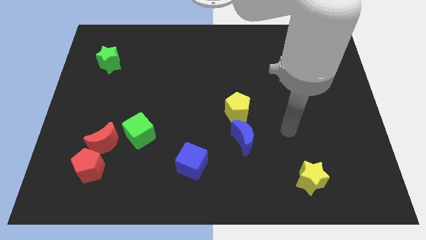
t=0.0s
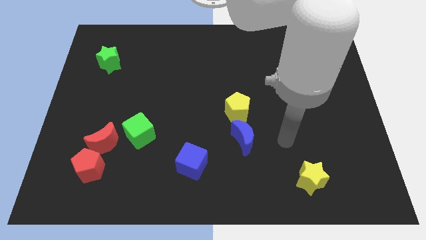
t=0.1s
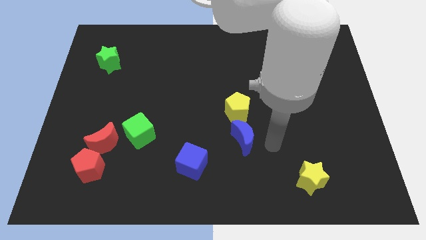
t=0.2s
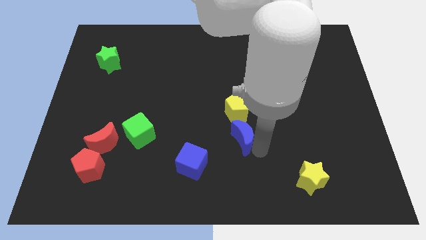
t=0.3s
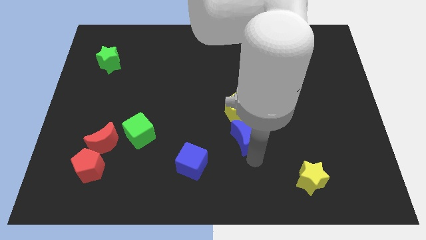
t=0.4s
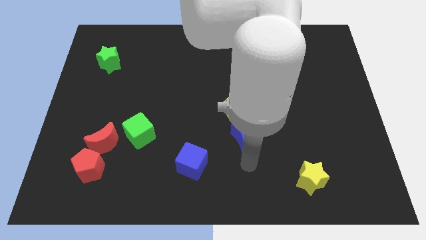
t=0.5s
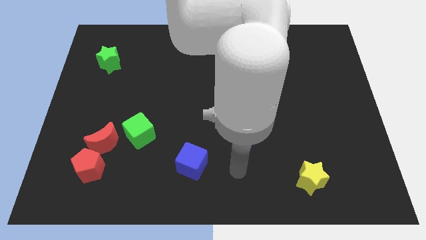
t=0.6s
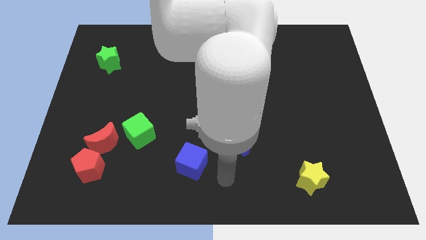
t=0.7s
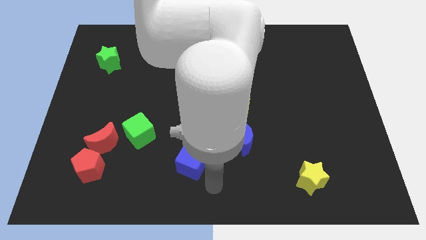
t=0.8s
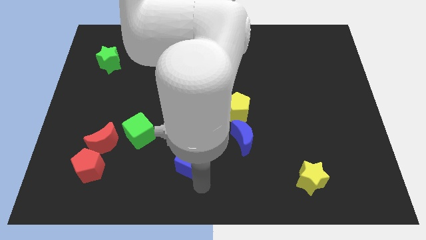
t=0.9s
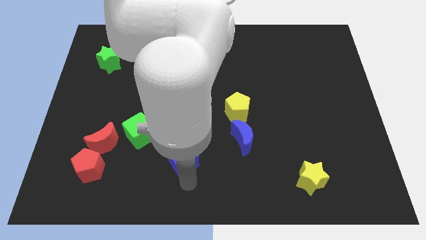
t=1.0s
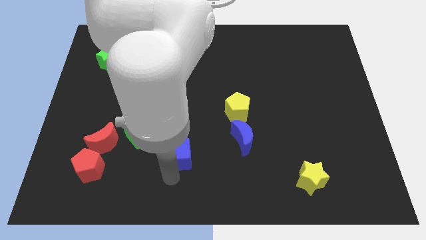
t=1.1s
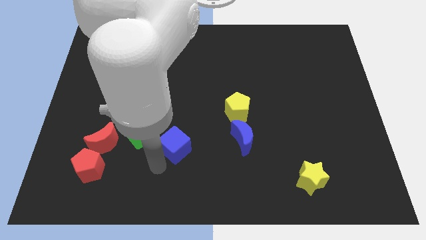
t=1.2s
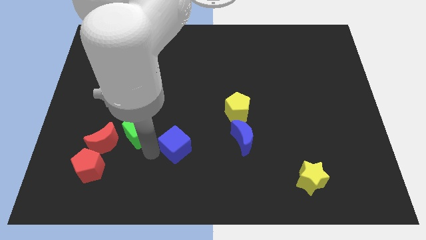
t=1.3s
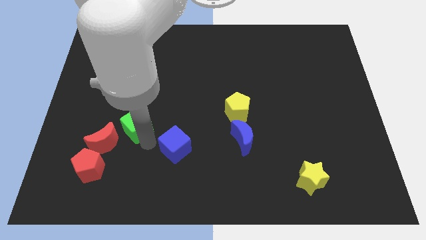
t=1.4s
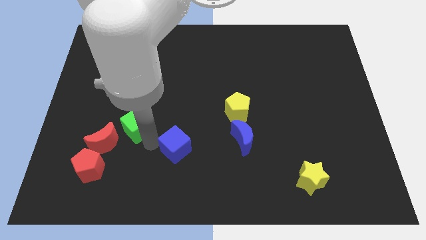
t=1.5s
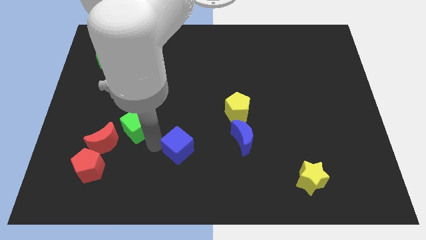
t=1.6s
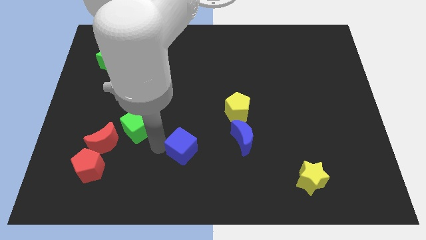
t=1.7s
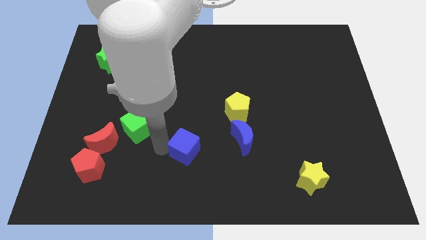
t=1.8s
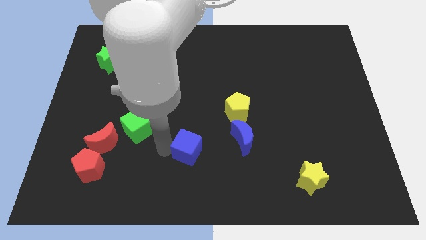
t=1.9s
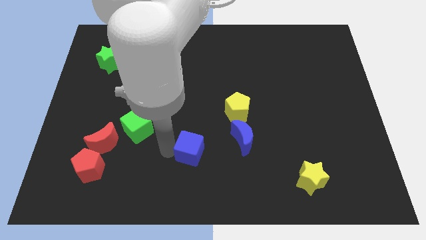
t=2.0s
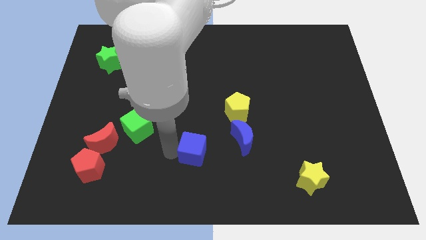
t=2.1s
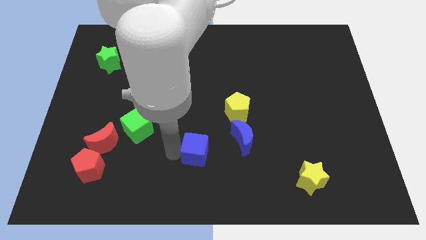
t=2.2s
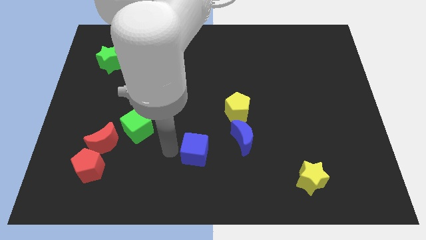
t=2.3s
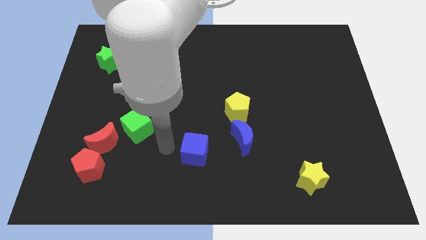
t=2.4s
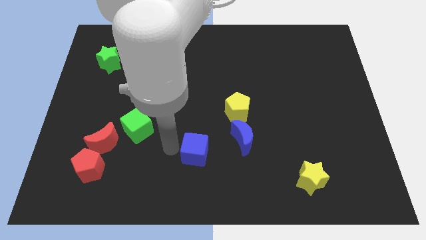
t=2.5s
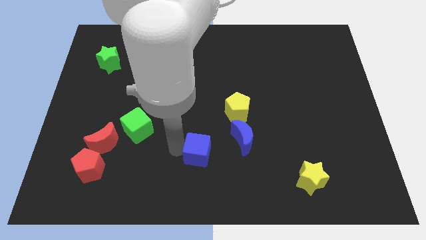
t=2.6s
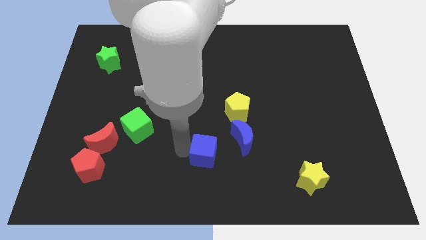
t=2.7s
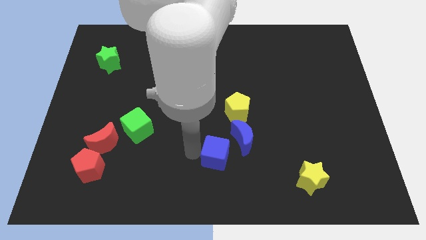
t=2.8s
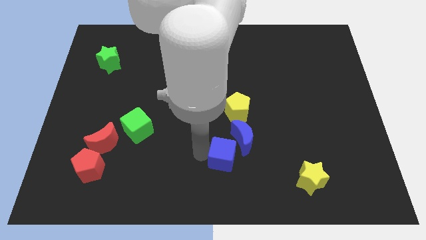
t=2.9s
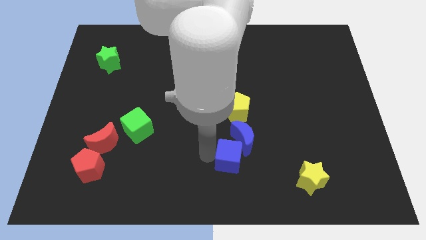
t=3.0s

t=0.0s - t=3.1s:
slightly move the blue cube right

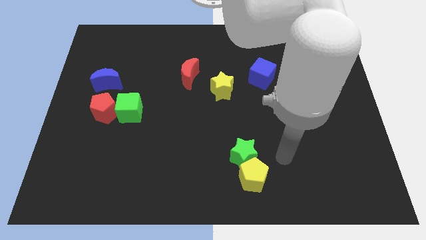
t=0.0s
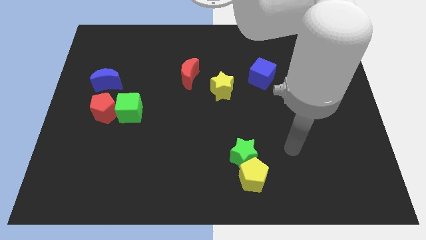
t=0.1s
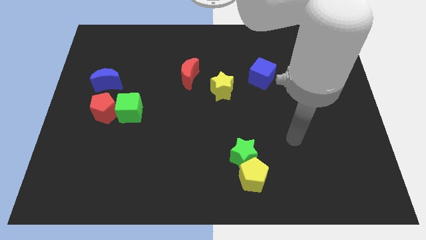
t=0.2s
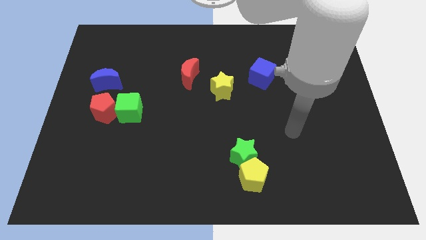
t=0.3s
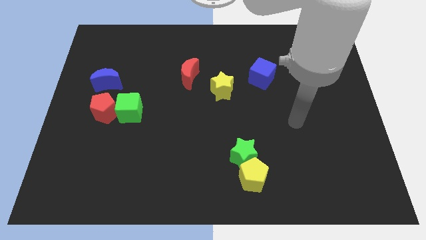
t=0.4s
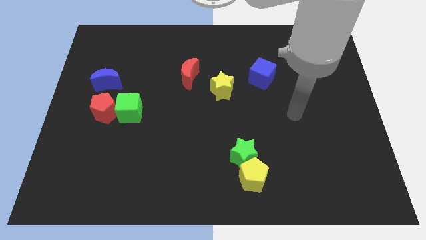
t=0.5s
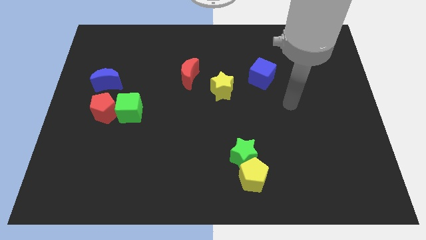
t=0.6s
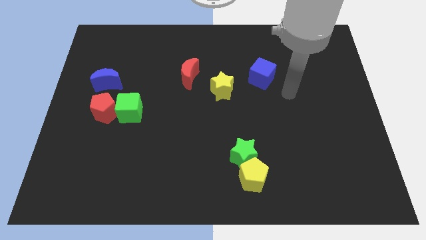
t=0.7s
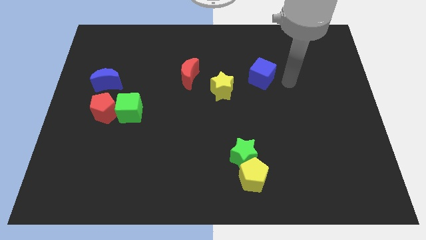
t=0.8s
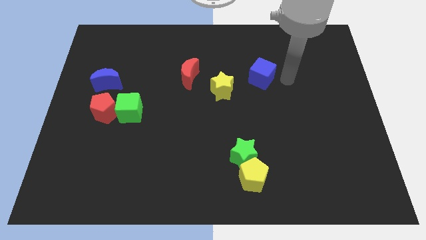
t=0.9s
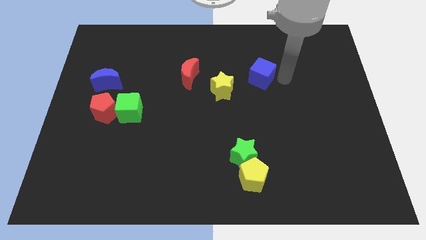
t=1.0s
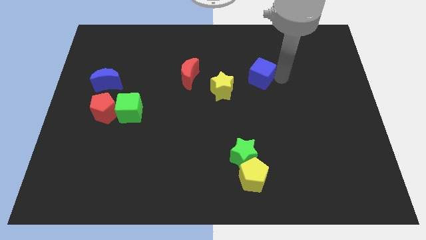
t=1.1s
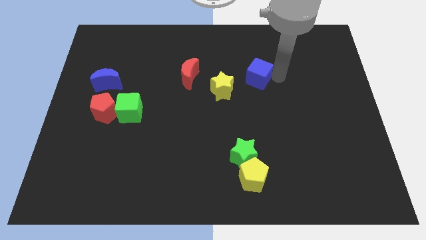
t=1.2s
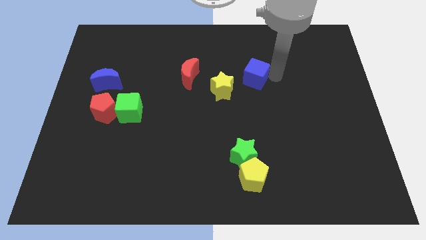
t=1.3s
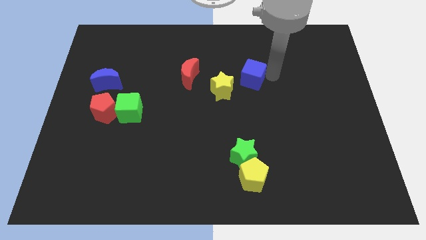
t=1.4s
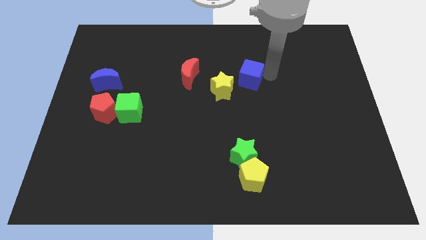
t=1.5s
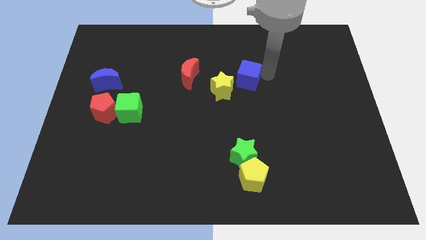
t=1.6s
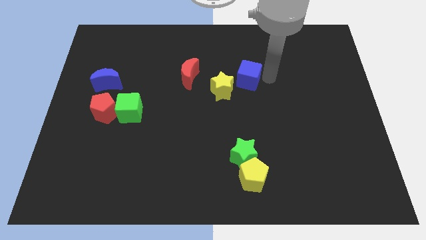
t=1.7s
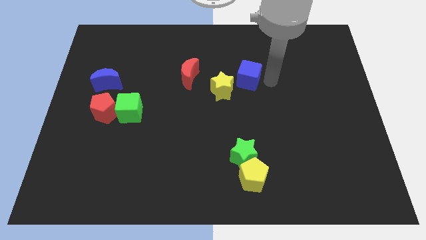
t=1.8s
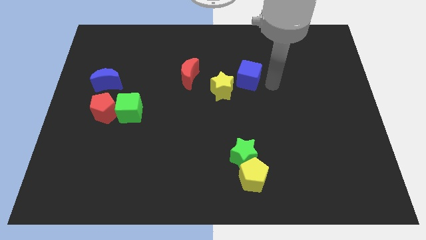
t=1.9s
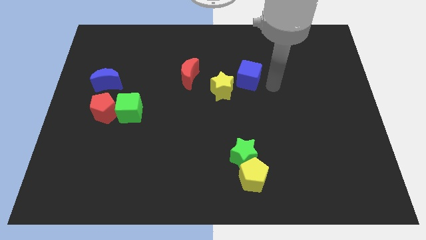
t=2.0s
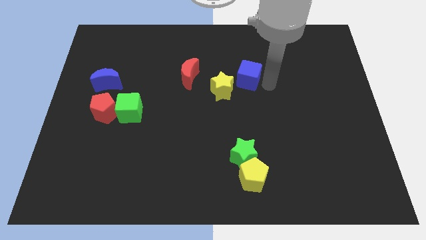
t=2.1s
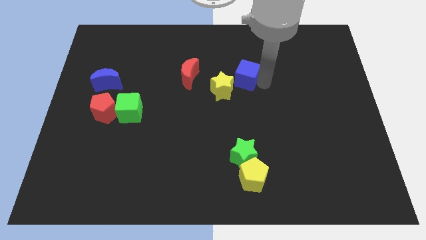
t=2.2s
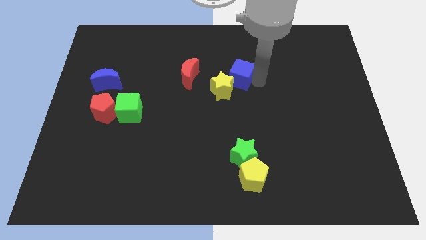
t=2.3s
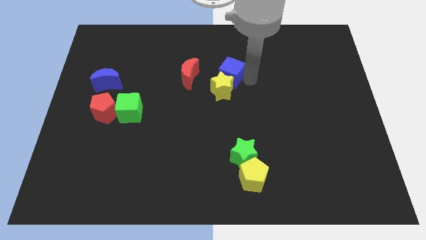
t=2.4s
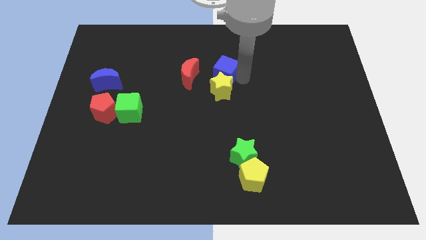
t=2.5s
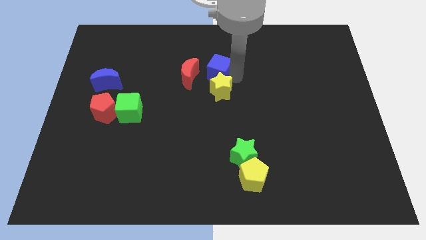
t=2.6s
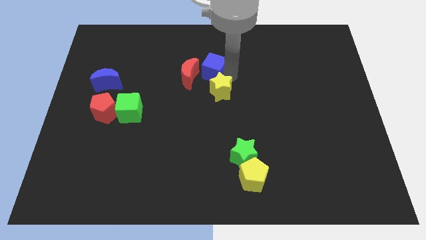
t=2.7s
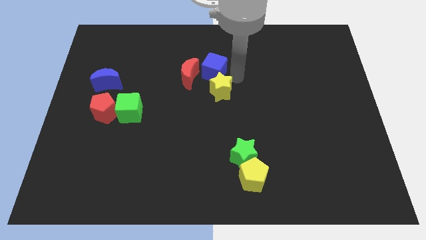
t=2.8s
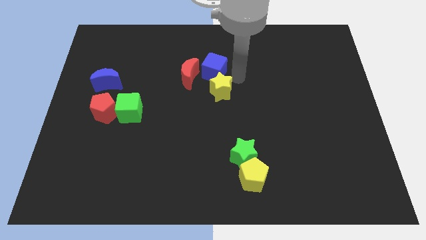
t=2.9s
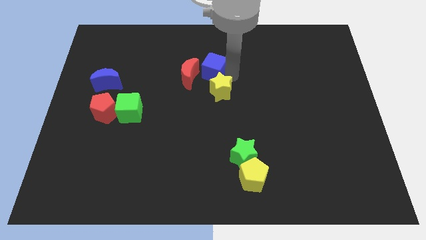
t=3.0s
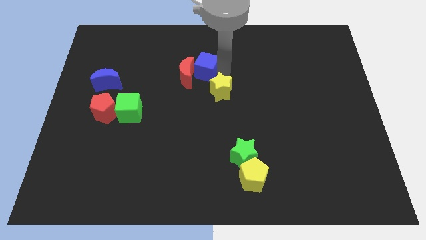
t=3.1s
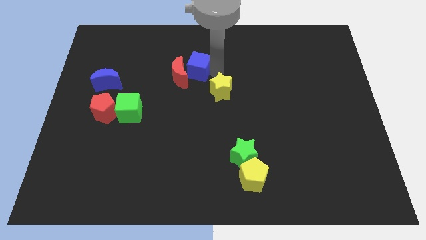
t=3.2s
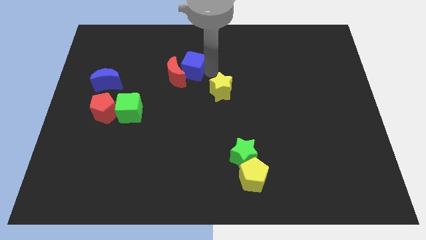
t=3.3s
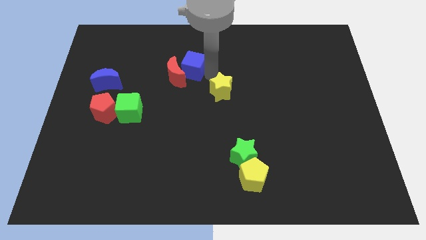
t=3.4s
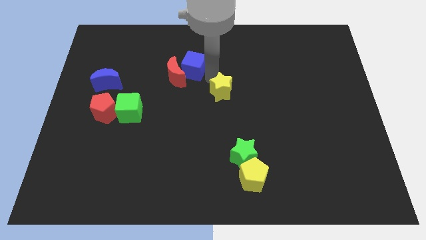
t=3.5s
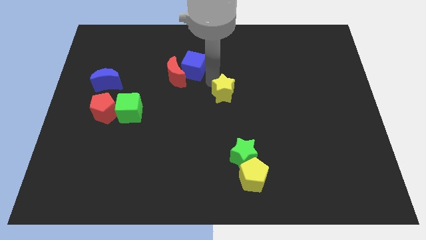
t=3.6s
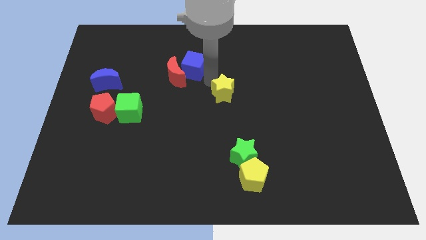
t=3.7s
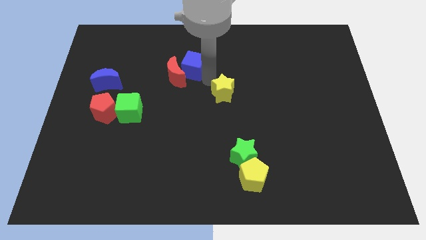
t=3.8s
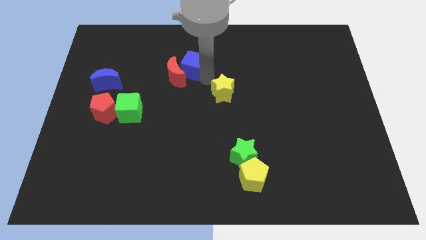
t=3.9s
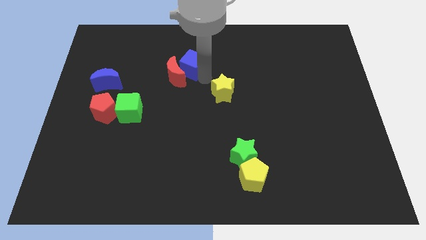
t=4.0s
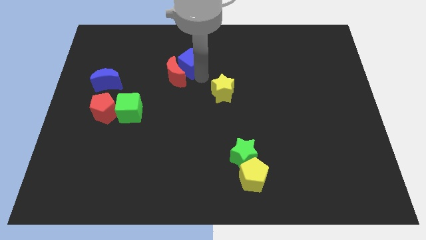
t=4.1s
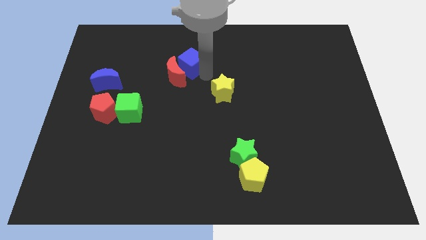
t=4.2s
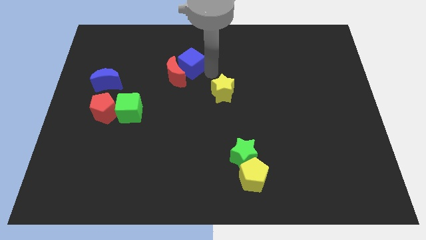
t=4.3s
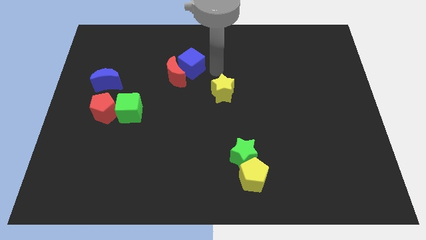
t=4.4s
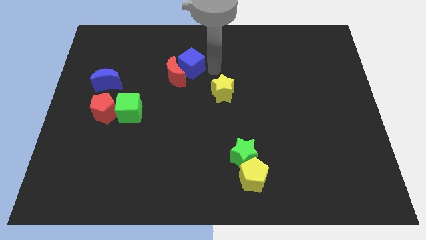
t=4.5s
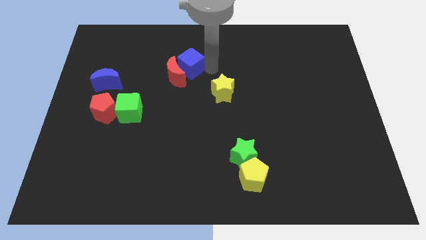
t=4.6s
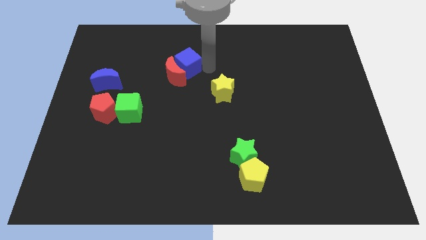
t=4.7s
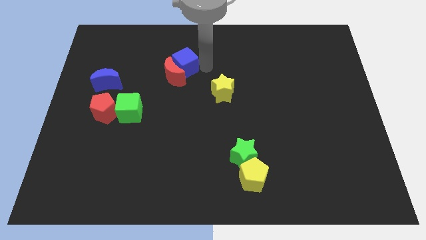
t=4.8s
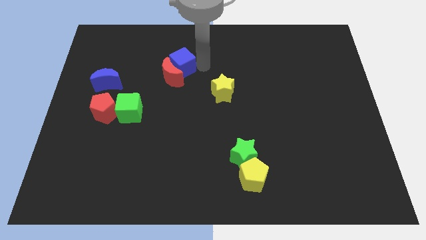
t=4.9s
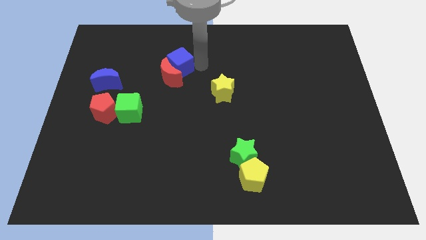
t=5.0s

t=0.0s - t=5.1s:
slide the blue cube to the left
